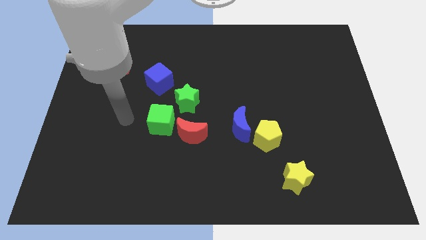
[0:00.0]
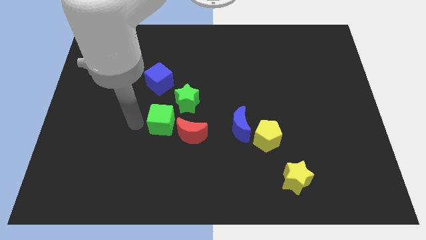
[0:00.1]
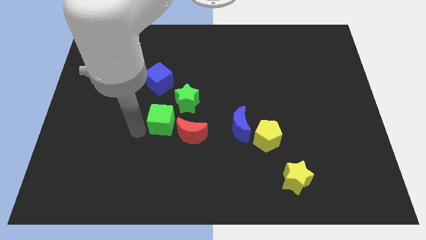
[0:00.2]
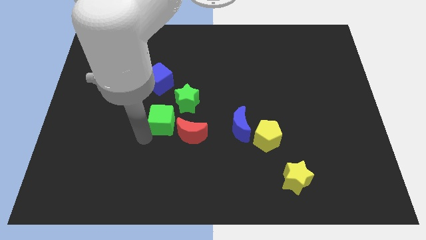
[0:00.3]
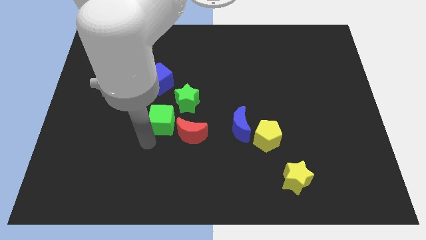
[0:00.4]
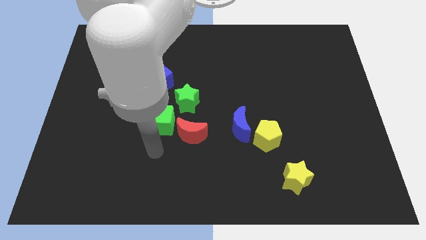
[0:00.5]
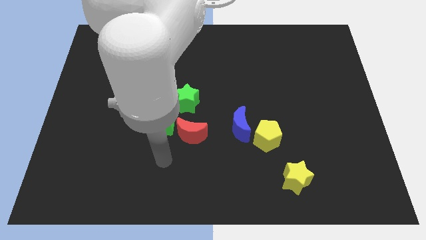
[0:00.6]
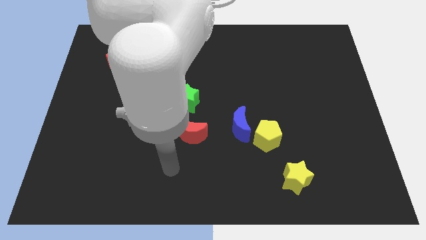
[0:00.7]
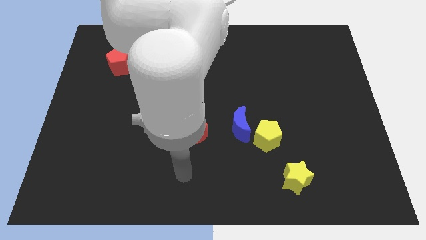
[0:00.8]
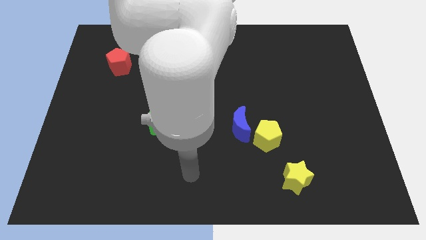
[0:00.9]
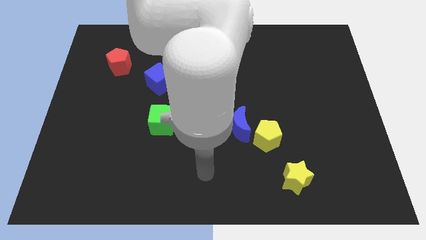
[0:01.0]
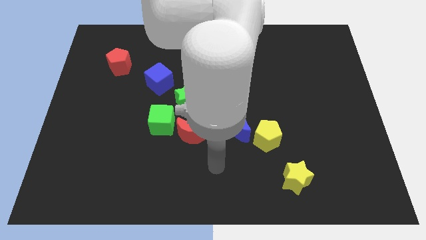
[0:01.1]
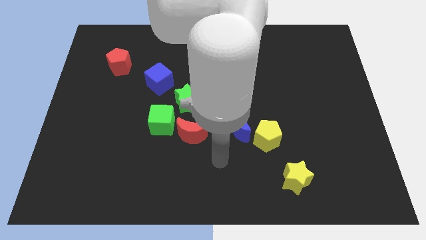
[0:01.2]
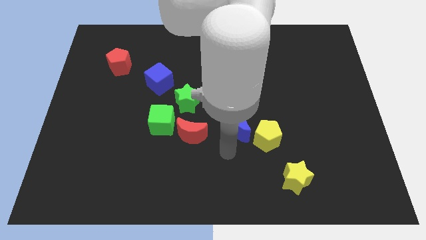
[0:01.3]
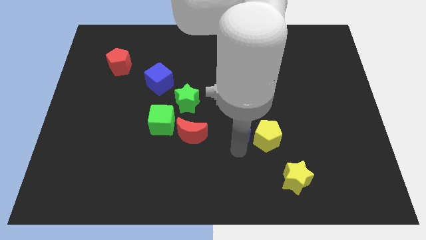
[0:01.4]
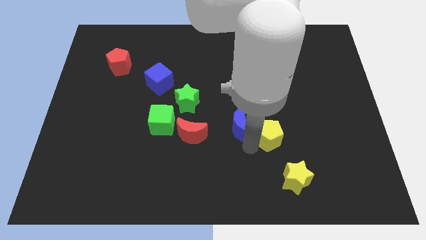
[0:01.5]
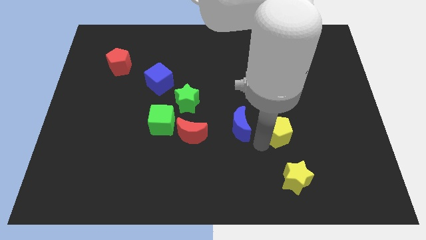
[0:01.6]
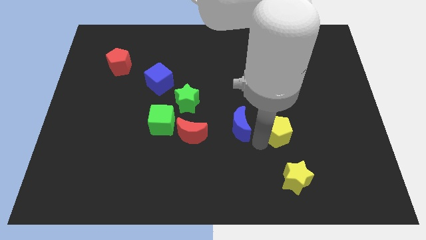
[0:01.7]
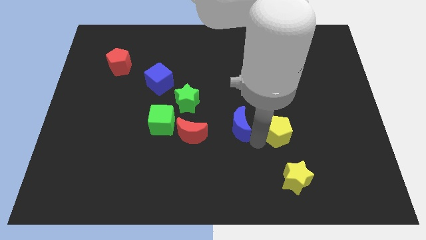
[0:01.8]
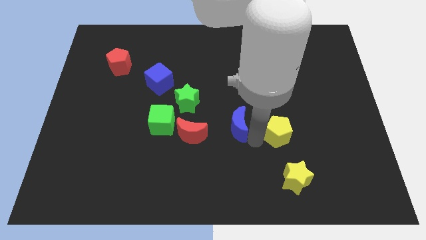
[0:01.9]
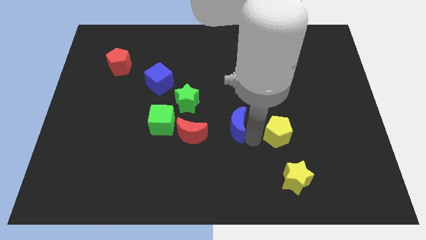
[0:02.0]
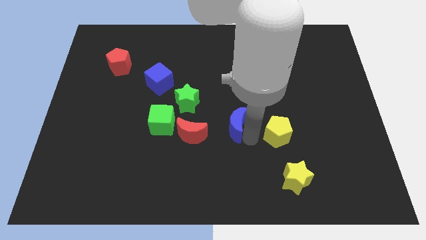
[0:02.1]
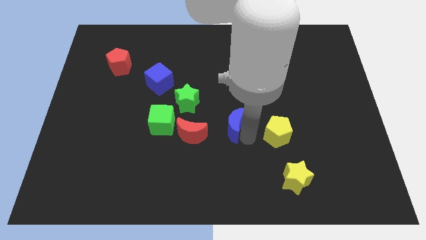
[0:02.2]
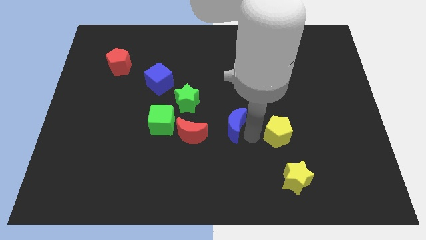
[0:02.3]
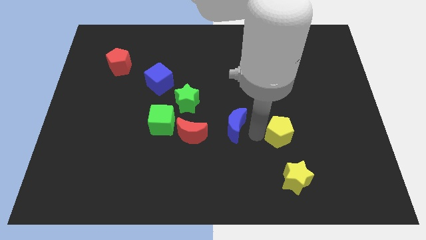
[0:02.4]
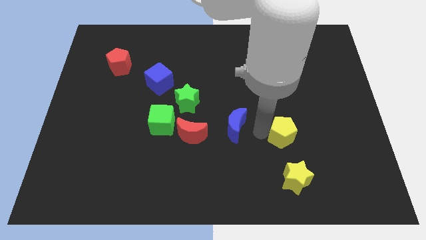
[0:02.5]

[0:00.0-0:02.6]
separate the blue moon from the yellow pentagon

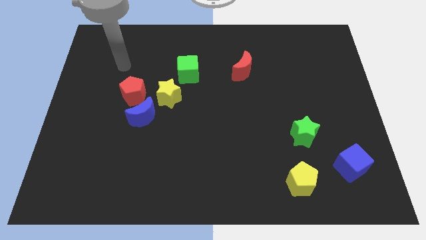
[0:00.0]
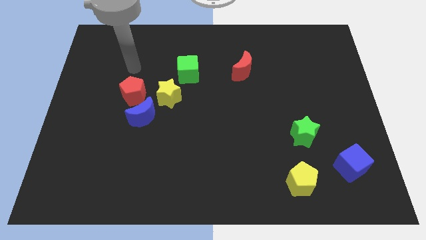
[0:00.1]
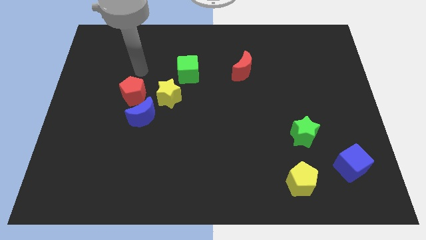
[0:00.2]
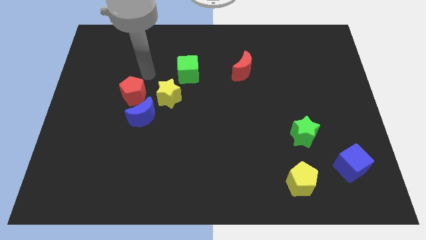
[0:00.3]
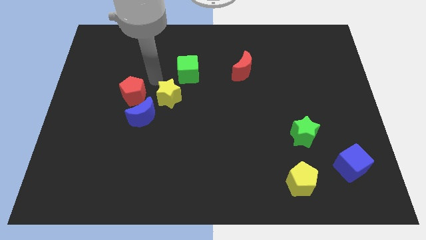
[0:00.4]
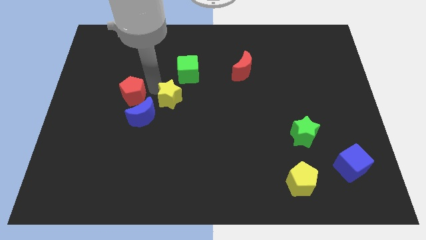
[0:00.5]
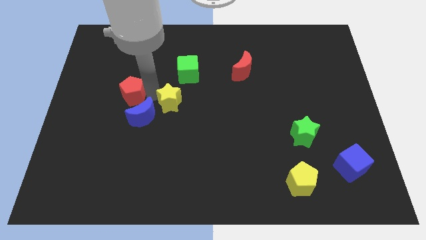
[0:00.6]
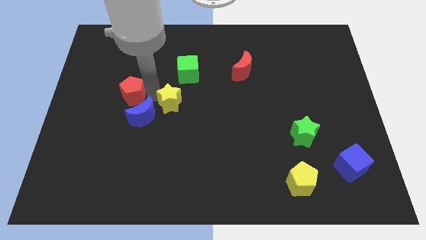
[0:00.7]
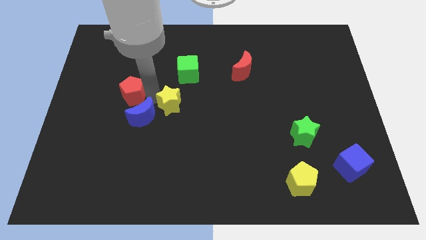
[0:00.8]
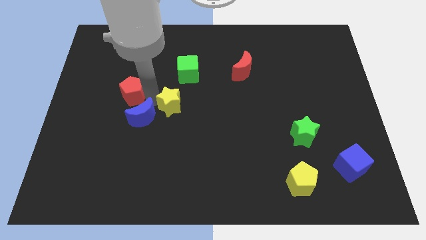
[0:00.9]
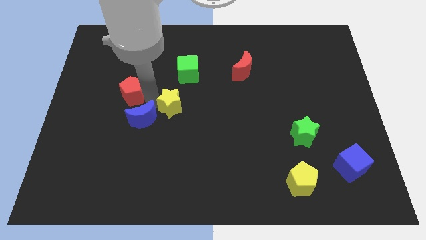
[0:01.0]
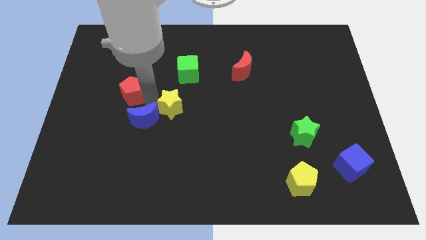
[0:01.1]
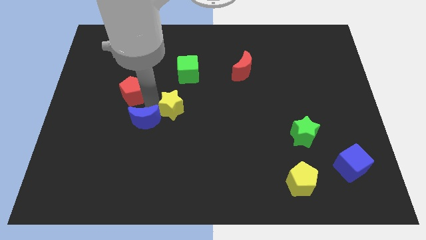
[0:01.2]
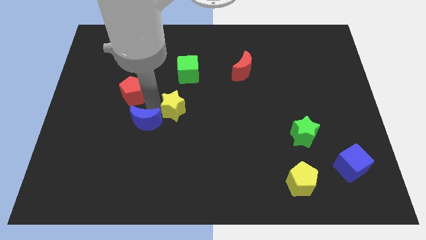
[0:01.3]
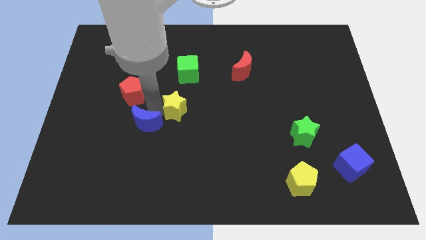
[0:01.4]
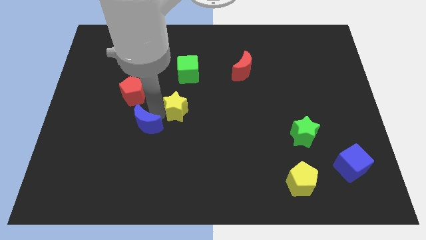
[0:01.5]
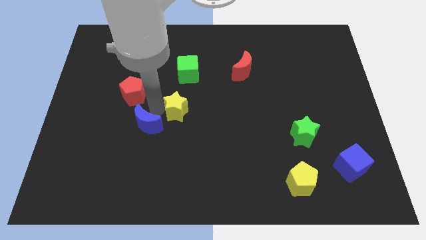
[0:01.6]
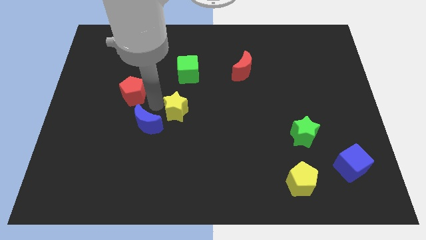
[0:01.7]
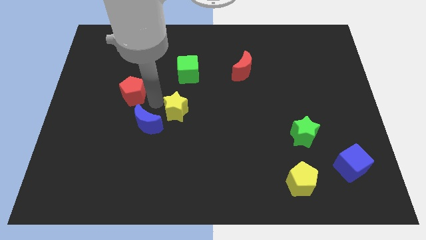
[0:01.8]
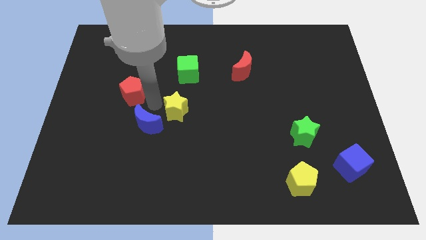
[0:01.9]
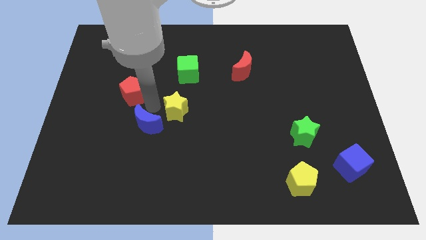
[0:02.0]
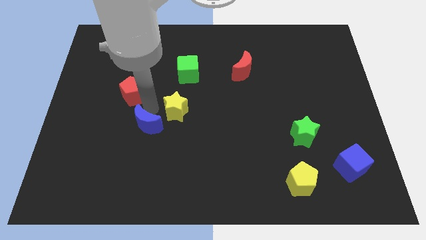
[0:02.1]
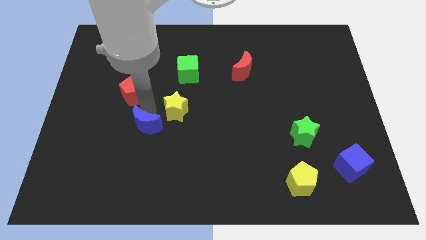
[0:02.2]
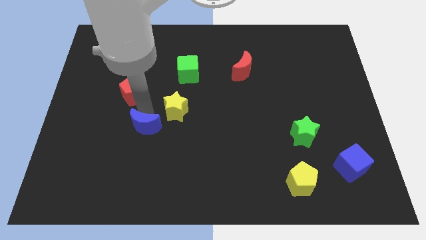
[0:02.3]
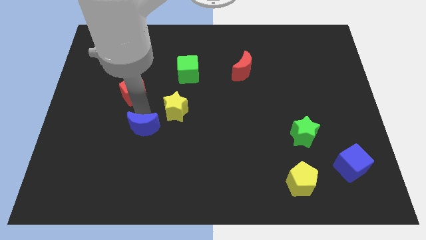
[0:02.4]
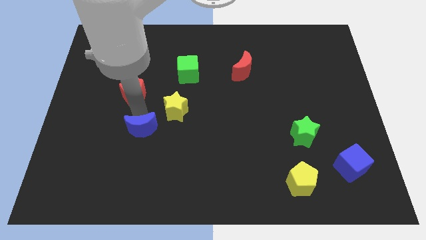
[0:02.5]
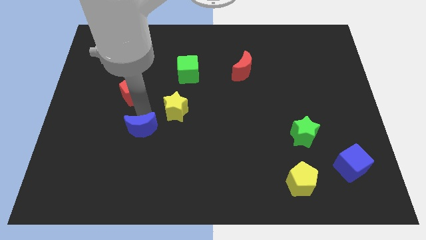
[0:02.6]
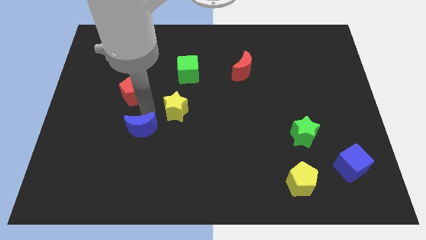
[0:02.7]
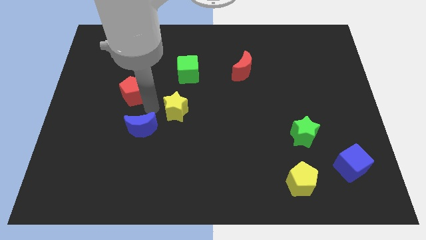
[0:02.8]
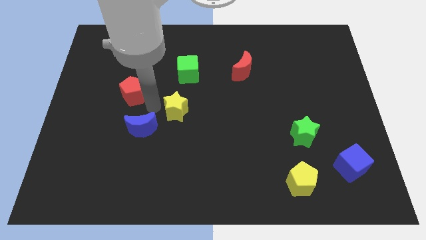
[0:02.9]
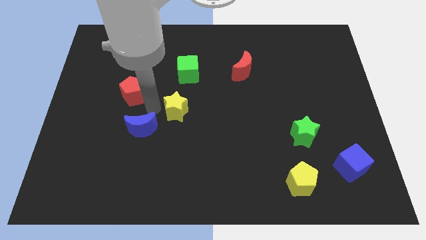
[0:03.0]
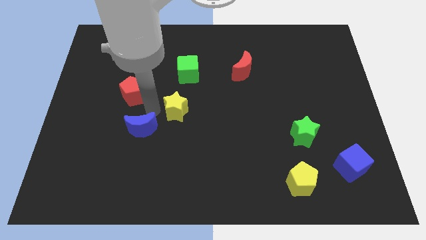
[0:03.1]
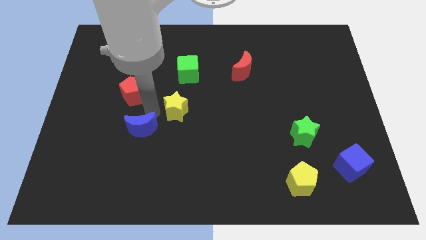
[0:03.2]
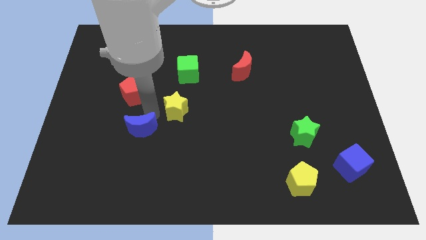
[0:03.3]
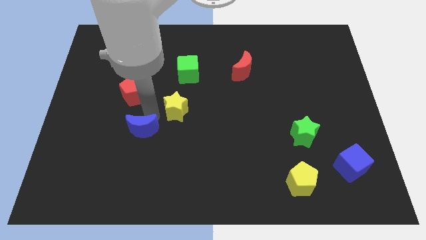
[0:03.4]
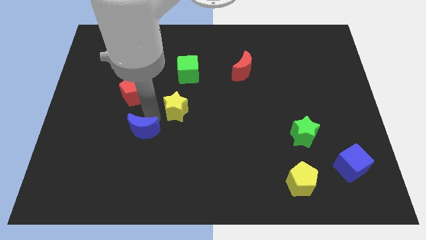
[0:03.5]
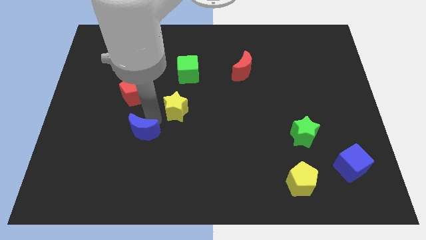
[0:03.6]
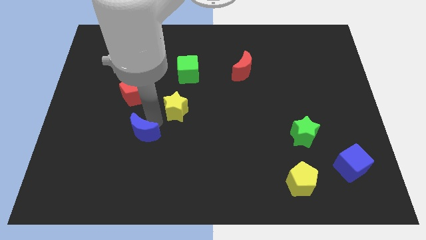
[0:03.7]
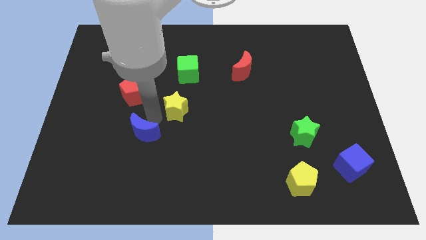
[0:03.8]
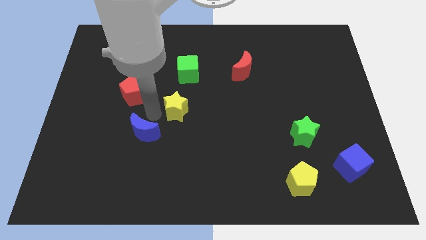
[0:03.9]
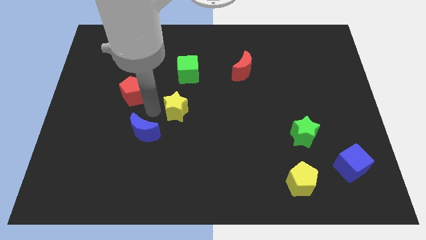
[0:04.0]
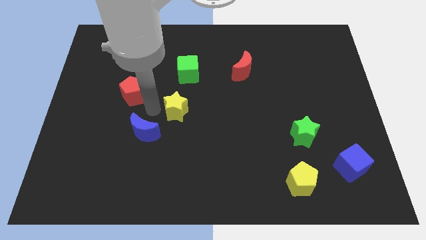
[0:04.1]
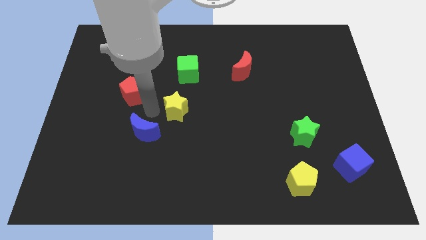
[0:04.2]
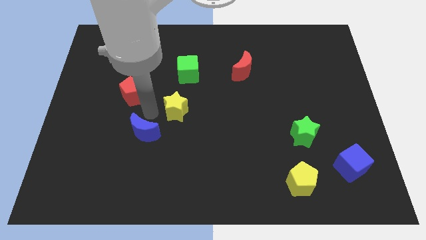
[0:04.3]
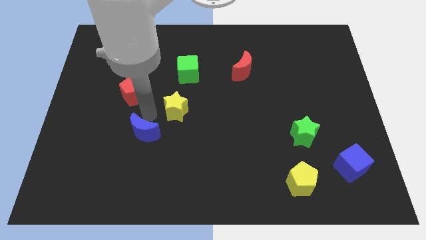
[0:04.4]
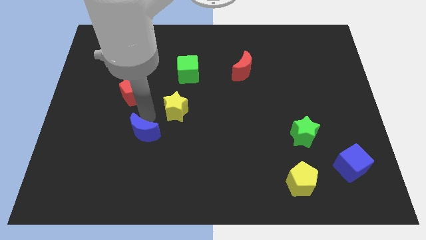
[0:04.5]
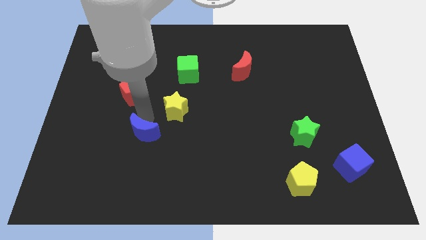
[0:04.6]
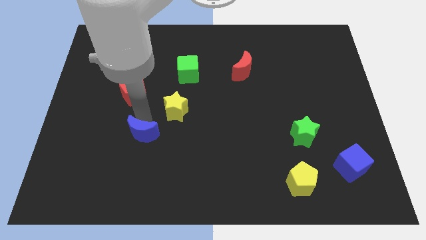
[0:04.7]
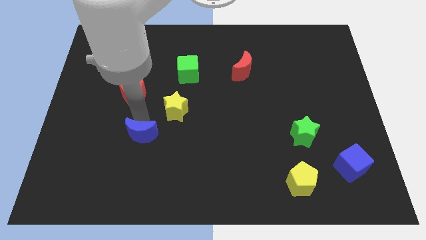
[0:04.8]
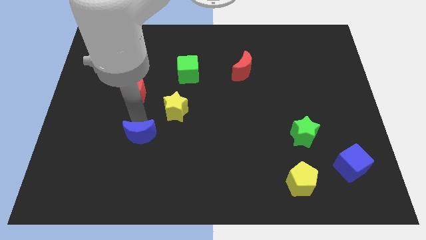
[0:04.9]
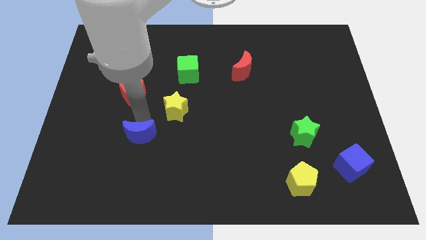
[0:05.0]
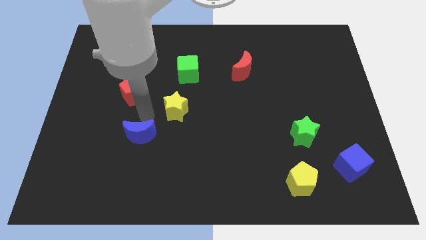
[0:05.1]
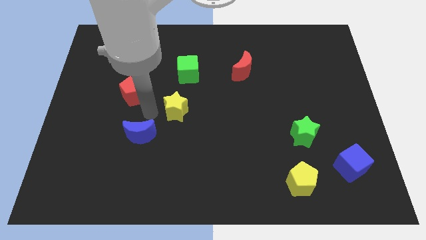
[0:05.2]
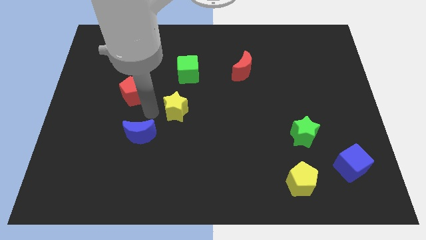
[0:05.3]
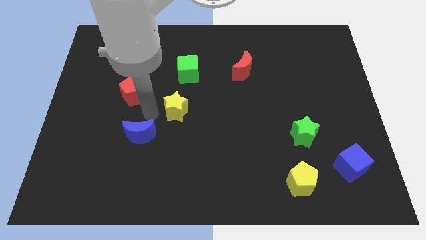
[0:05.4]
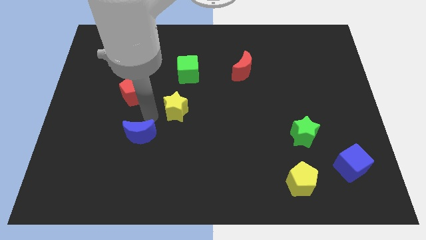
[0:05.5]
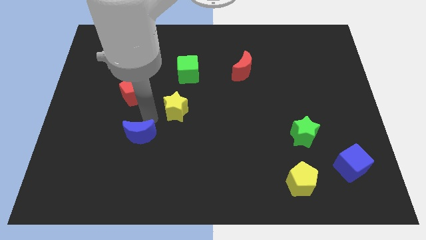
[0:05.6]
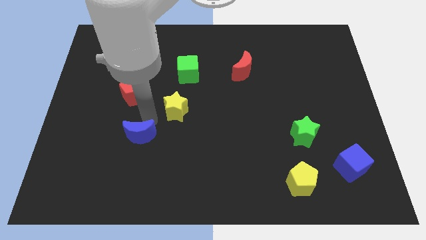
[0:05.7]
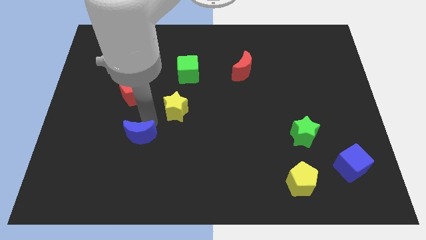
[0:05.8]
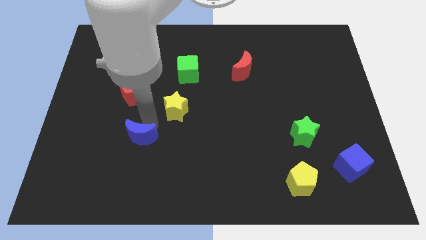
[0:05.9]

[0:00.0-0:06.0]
pull the blue moon apart from the red pentagon and yellow star

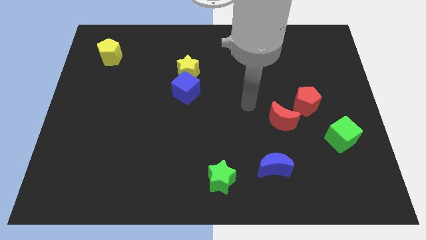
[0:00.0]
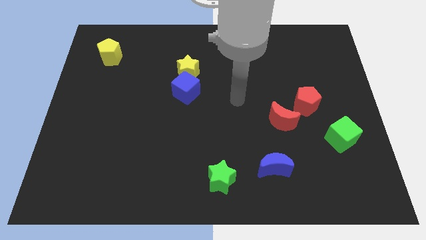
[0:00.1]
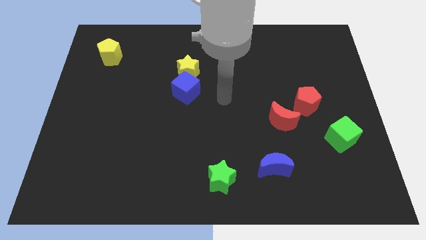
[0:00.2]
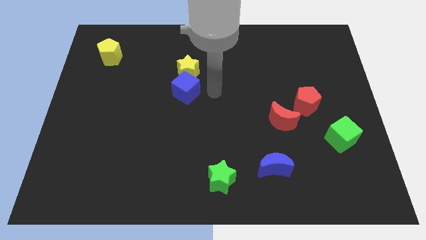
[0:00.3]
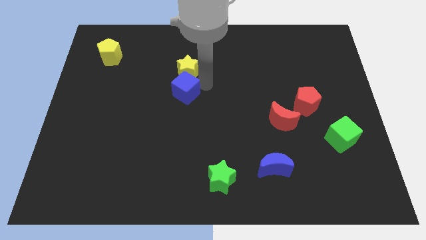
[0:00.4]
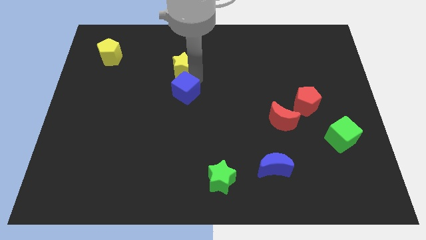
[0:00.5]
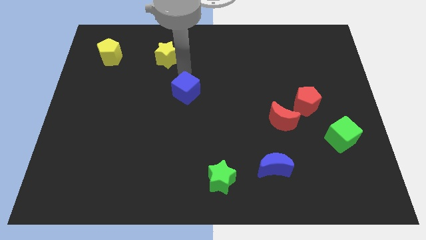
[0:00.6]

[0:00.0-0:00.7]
move the blue cube away from the yellow star
